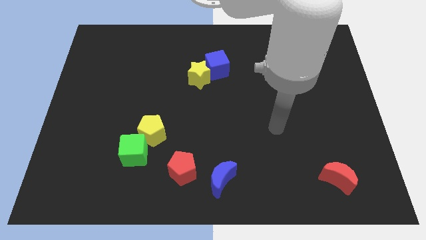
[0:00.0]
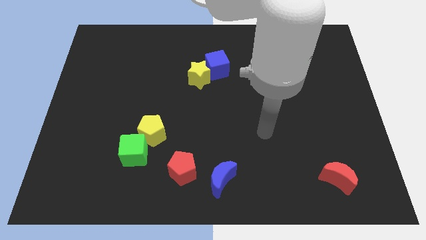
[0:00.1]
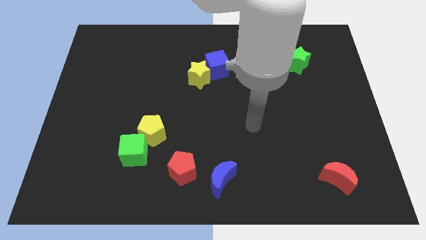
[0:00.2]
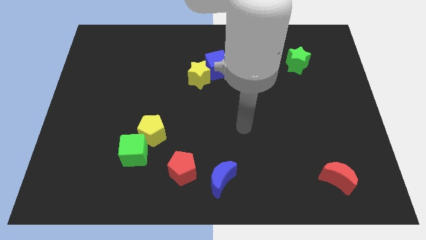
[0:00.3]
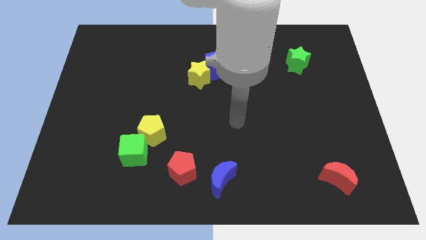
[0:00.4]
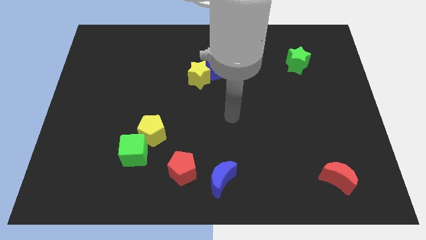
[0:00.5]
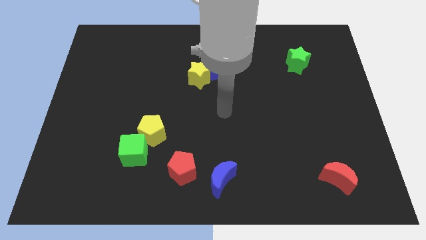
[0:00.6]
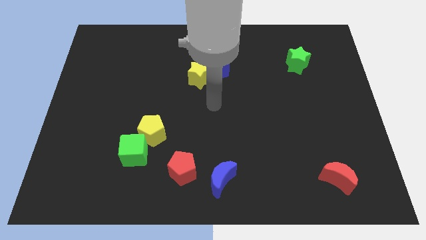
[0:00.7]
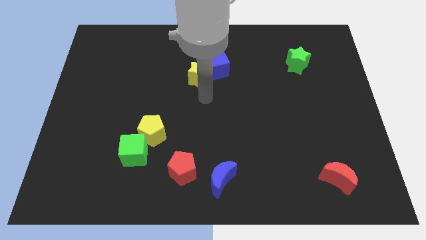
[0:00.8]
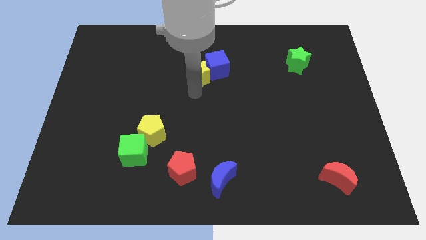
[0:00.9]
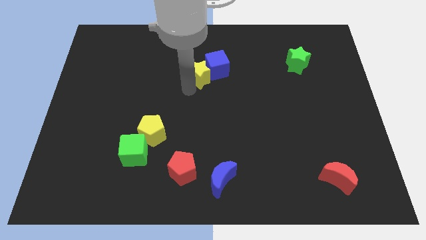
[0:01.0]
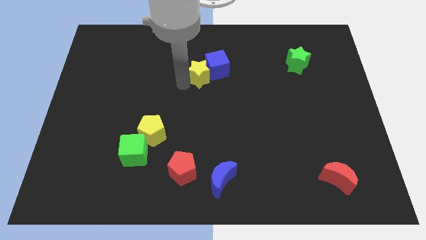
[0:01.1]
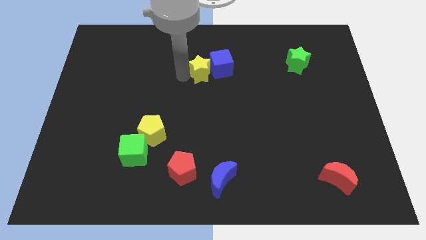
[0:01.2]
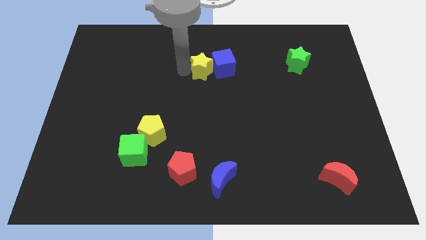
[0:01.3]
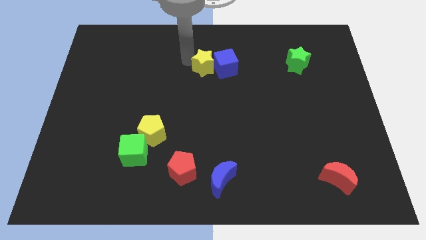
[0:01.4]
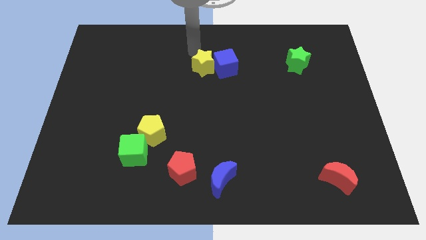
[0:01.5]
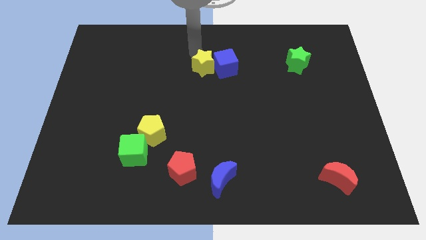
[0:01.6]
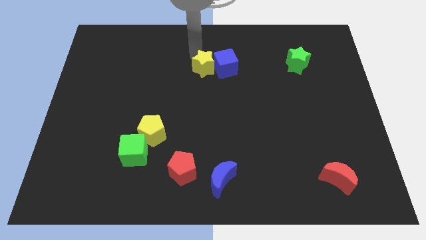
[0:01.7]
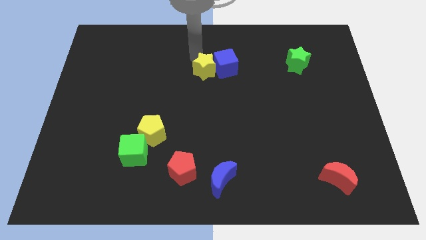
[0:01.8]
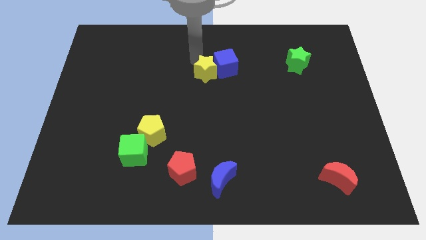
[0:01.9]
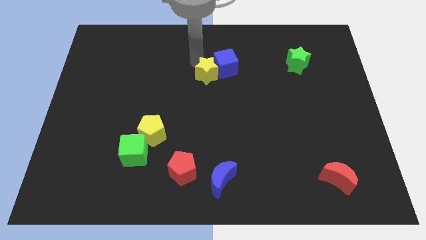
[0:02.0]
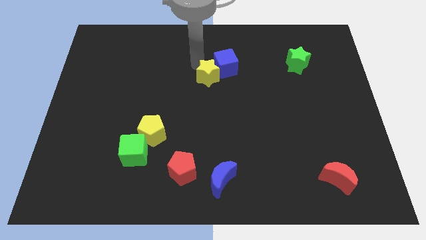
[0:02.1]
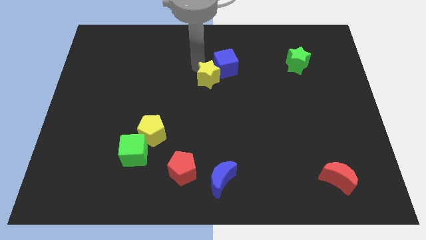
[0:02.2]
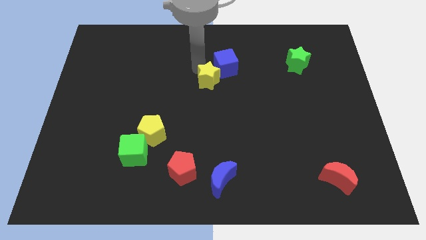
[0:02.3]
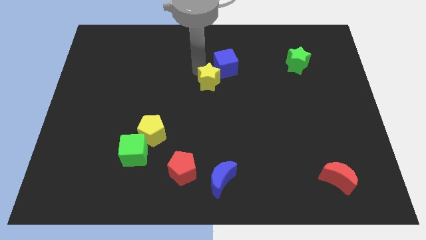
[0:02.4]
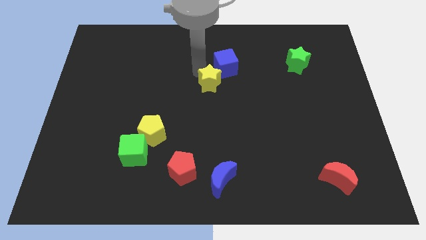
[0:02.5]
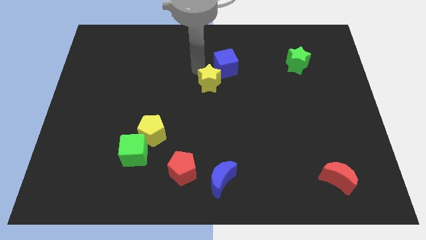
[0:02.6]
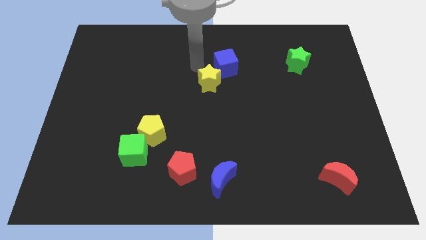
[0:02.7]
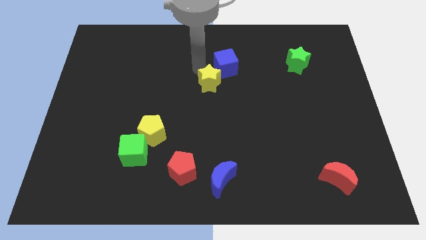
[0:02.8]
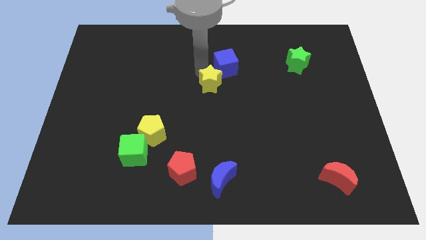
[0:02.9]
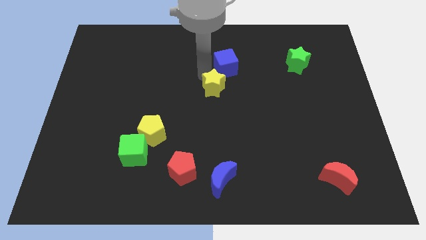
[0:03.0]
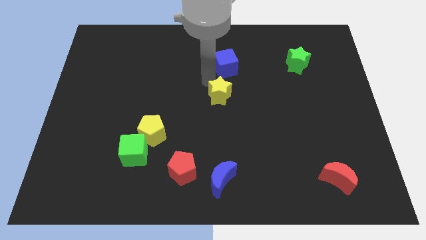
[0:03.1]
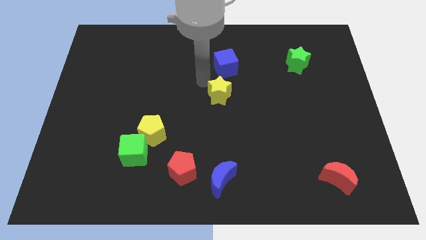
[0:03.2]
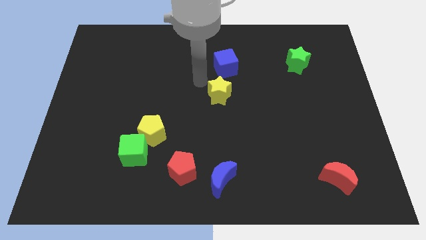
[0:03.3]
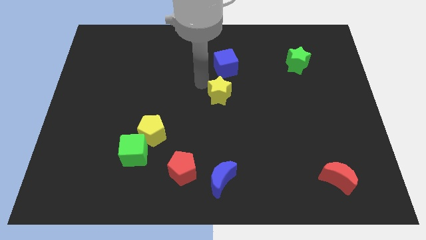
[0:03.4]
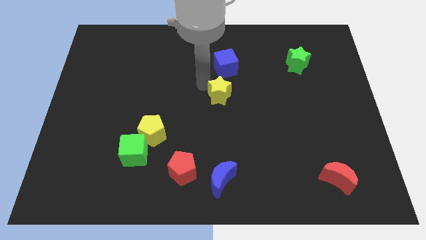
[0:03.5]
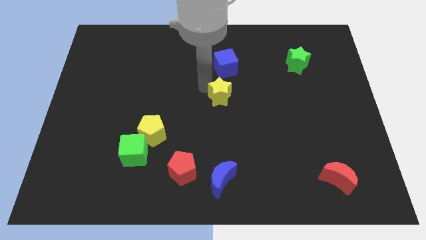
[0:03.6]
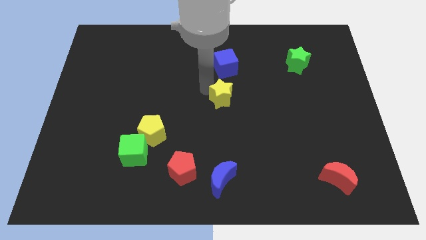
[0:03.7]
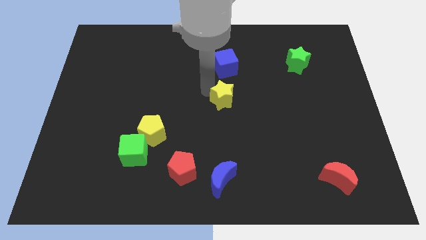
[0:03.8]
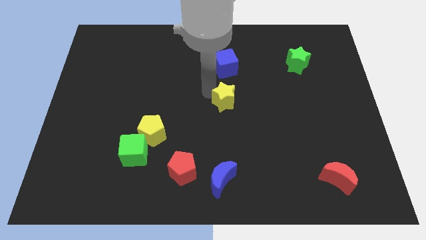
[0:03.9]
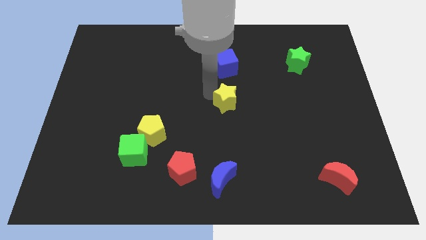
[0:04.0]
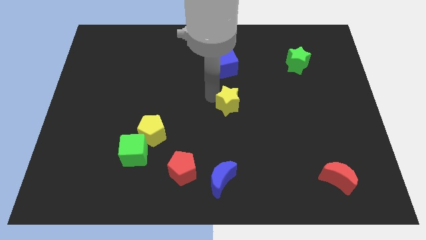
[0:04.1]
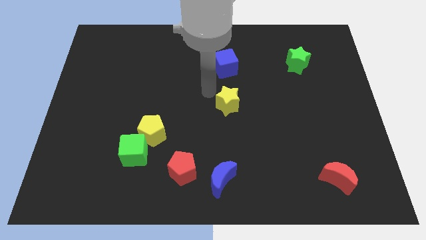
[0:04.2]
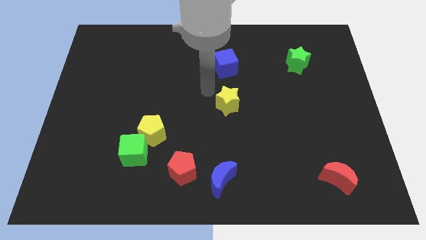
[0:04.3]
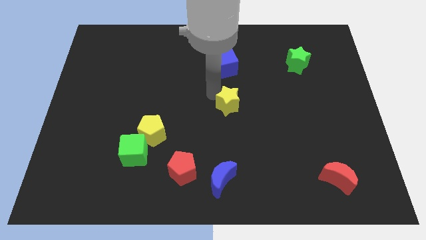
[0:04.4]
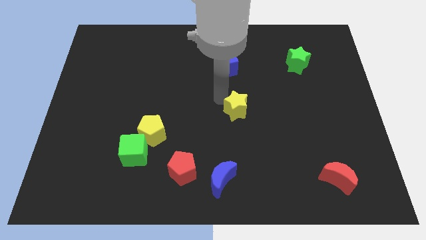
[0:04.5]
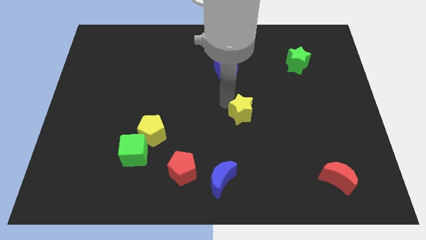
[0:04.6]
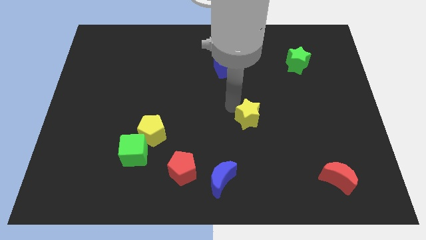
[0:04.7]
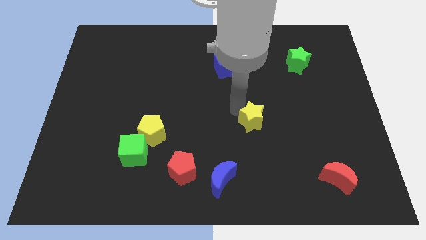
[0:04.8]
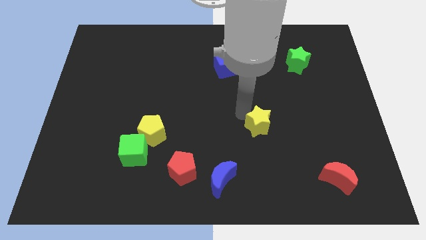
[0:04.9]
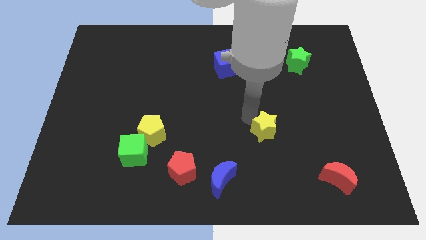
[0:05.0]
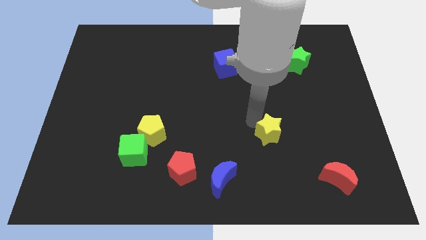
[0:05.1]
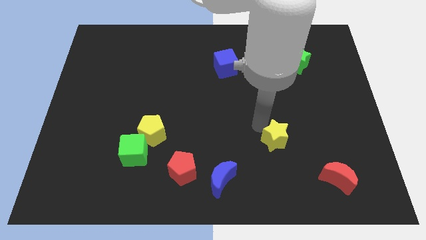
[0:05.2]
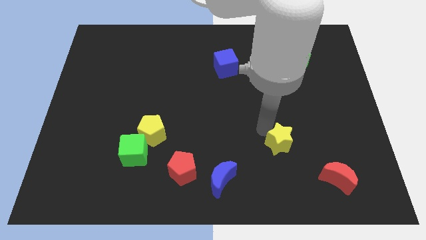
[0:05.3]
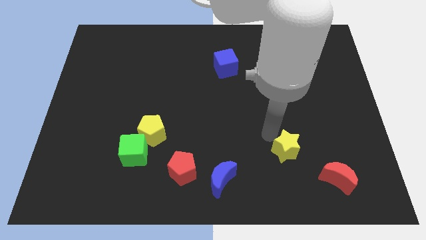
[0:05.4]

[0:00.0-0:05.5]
push the yellow star diagonally up and to the left of the red moon

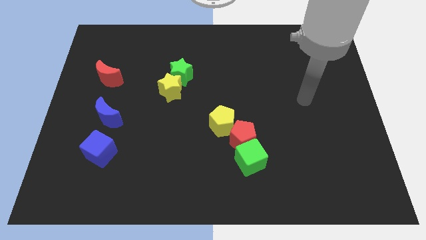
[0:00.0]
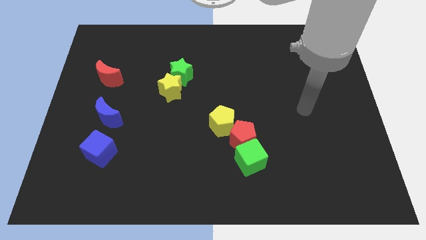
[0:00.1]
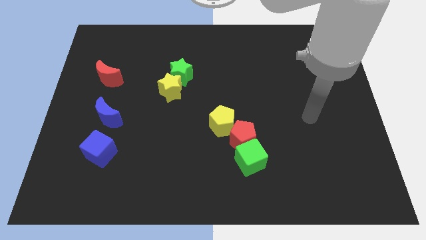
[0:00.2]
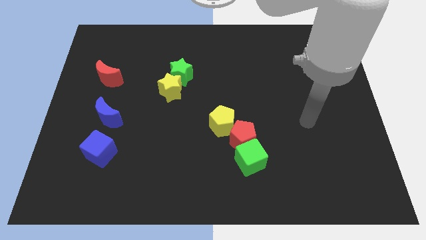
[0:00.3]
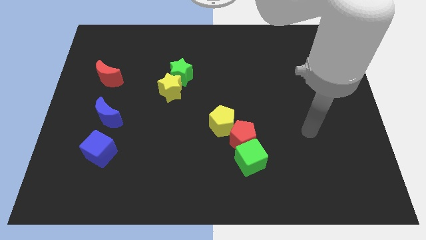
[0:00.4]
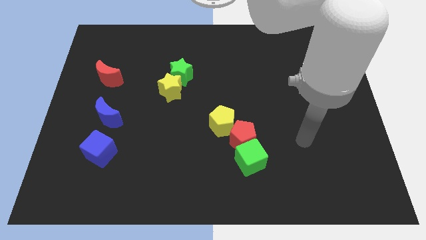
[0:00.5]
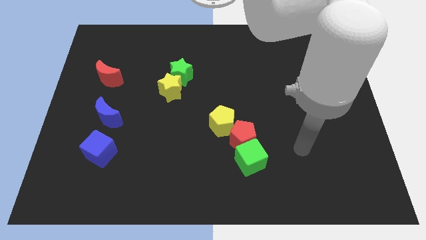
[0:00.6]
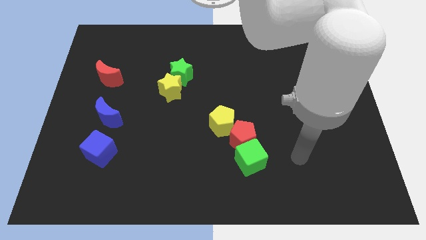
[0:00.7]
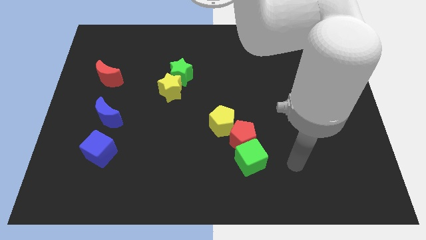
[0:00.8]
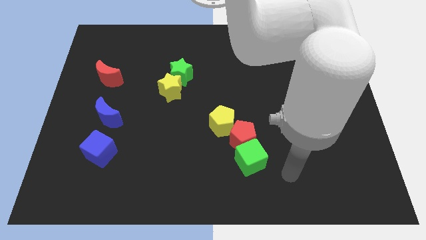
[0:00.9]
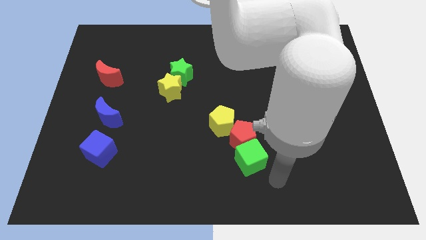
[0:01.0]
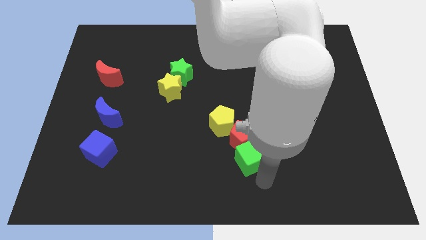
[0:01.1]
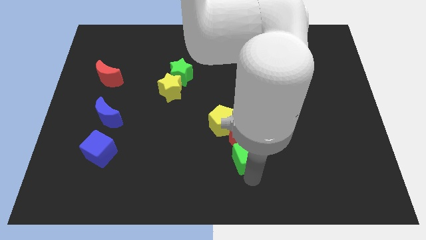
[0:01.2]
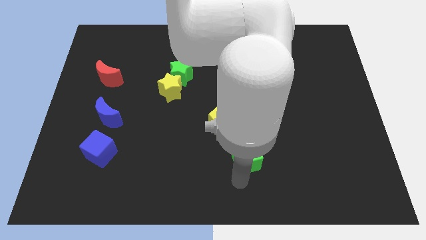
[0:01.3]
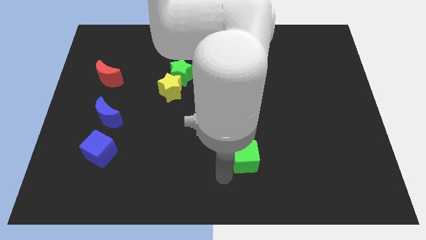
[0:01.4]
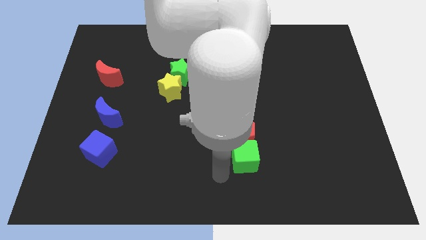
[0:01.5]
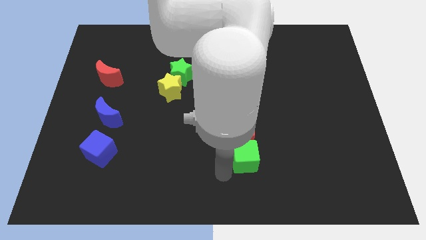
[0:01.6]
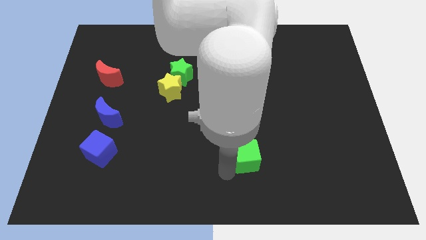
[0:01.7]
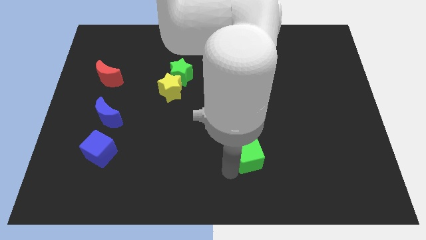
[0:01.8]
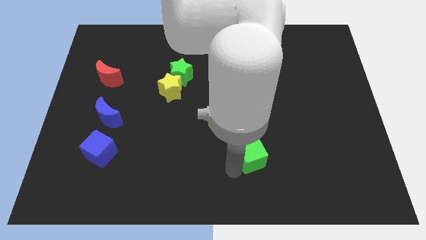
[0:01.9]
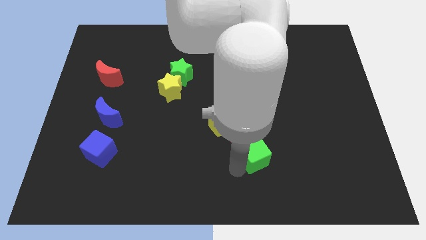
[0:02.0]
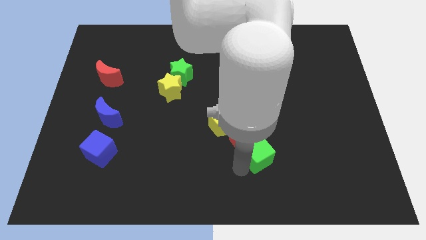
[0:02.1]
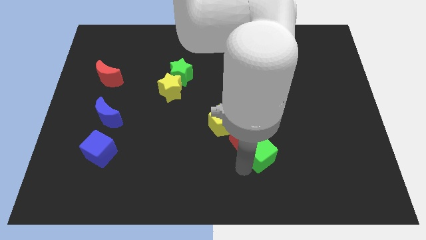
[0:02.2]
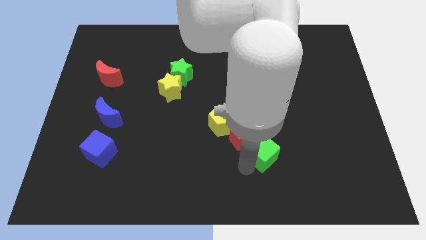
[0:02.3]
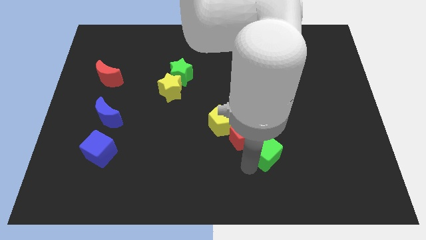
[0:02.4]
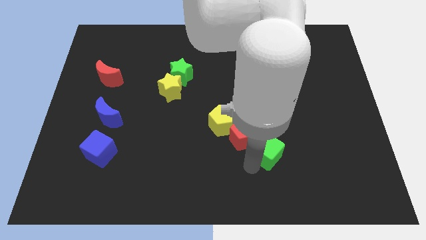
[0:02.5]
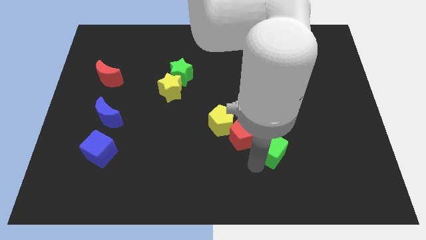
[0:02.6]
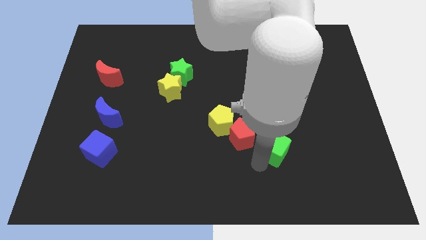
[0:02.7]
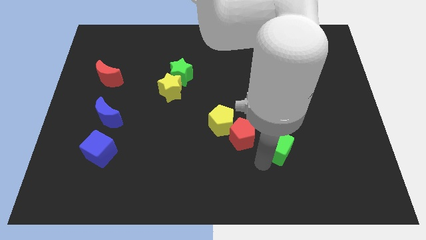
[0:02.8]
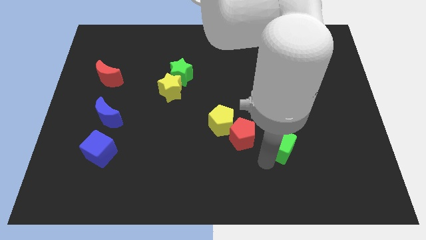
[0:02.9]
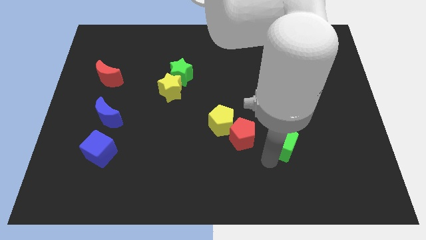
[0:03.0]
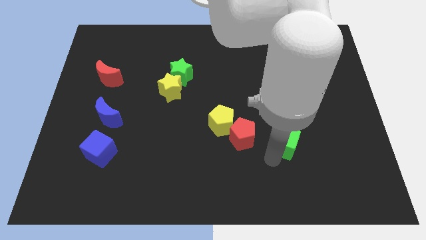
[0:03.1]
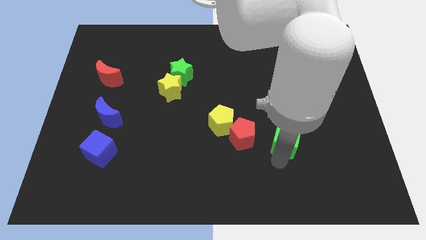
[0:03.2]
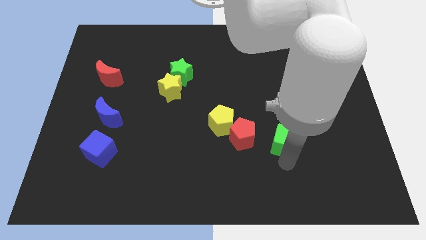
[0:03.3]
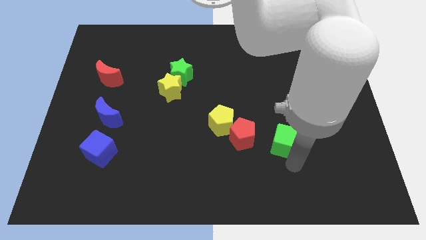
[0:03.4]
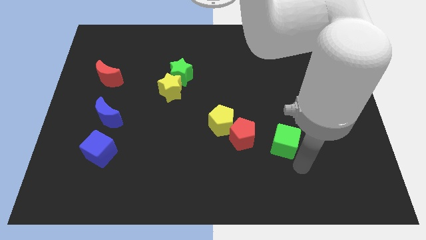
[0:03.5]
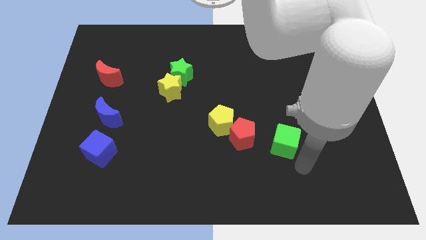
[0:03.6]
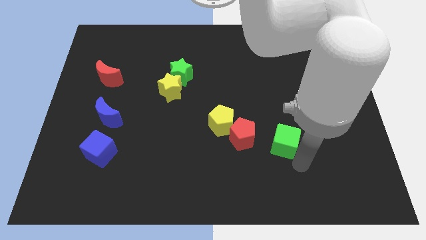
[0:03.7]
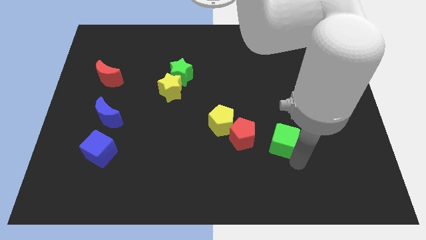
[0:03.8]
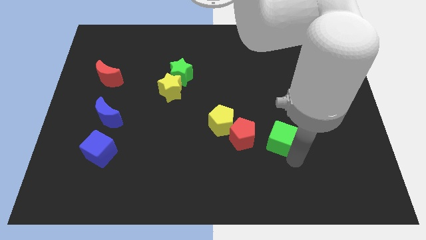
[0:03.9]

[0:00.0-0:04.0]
put the green cube to the right side of the yellow pentagon
